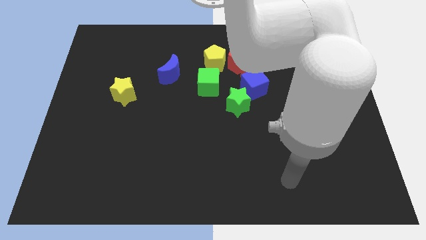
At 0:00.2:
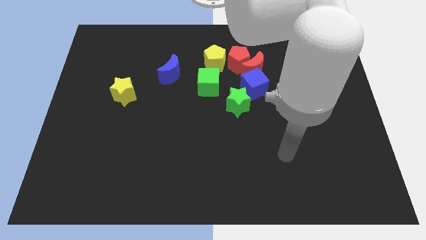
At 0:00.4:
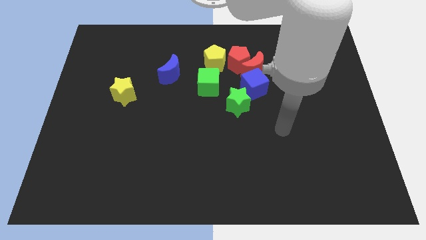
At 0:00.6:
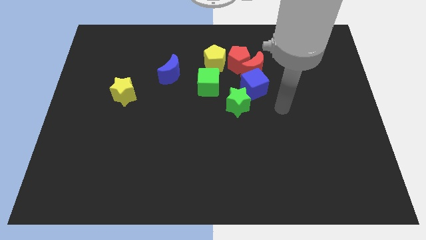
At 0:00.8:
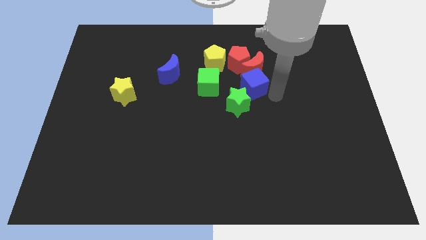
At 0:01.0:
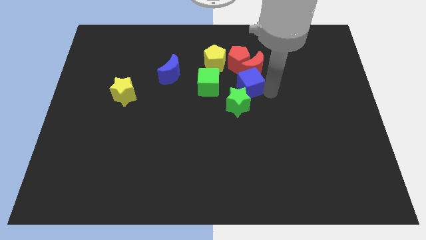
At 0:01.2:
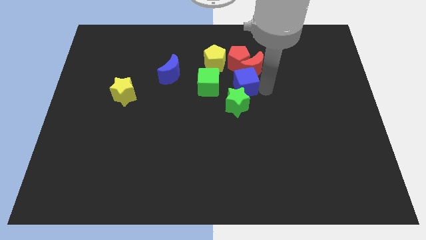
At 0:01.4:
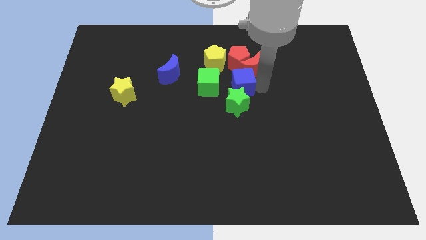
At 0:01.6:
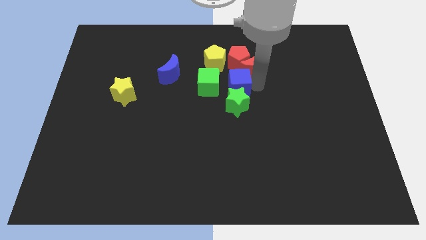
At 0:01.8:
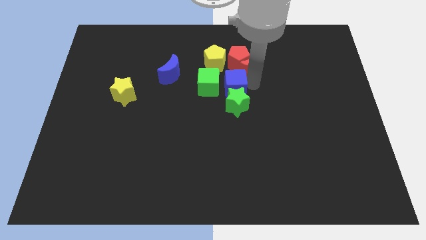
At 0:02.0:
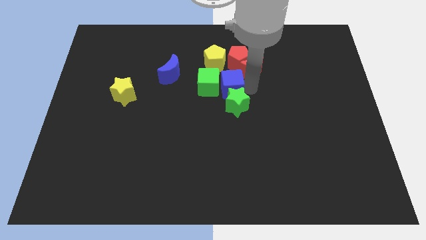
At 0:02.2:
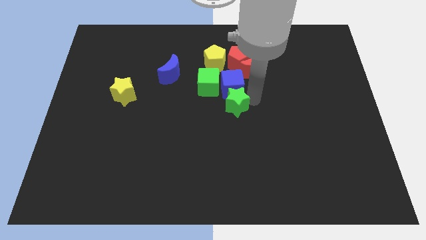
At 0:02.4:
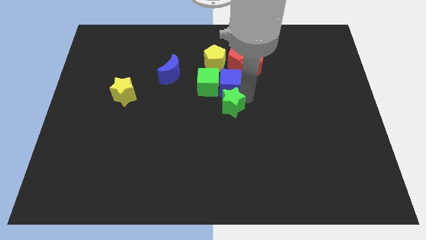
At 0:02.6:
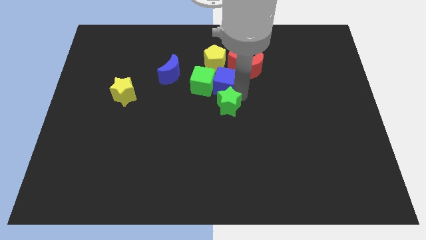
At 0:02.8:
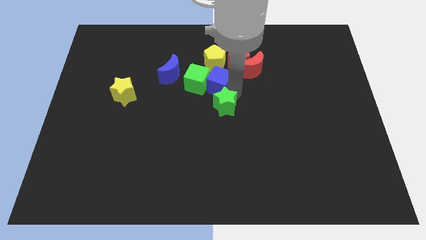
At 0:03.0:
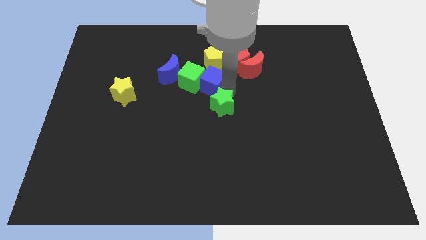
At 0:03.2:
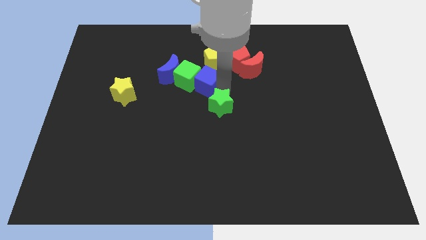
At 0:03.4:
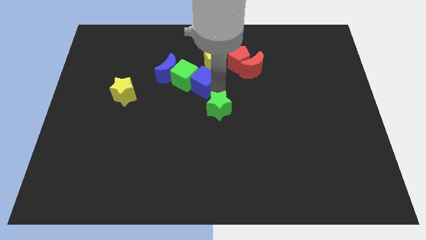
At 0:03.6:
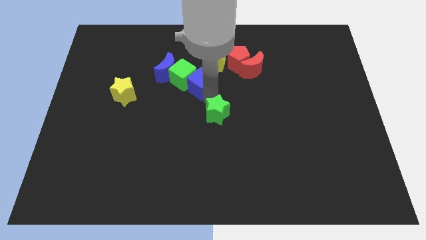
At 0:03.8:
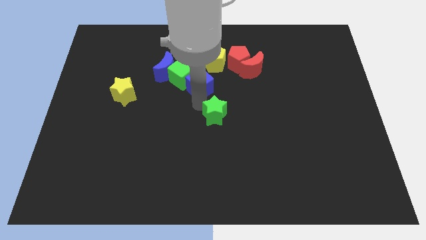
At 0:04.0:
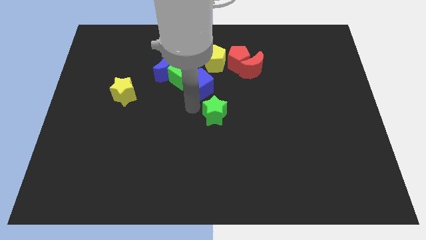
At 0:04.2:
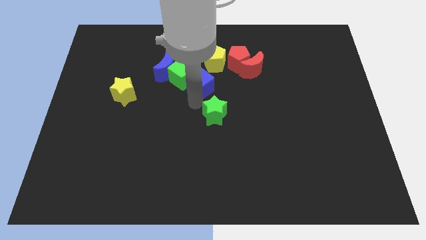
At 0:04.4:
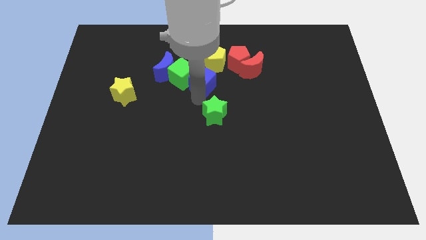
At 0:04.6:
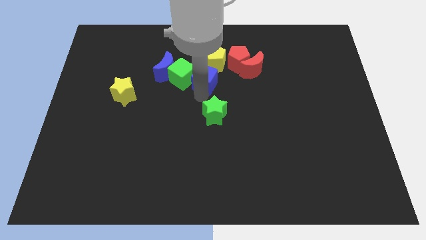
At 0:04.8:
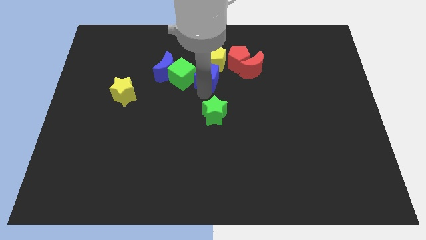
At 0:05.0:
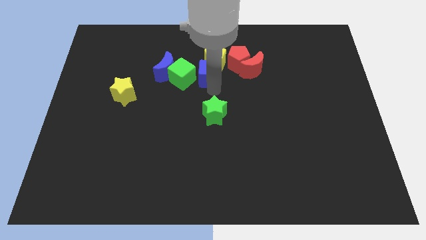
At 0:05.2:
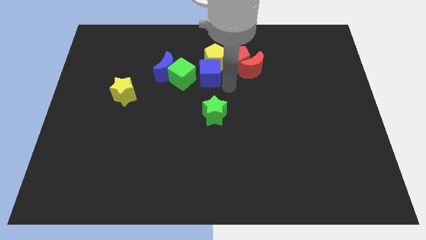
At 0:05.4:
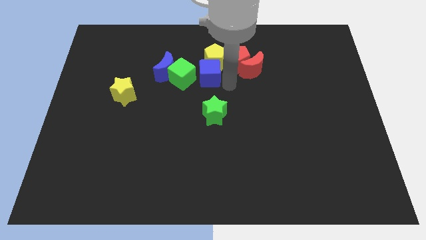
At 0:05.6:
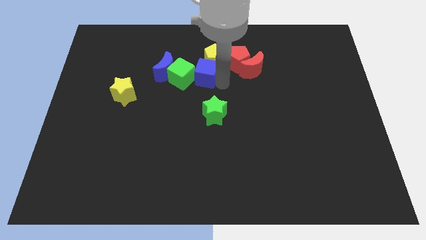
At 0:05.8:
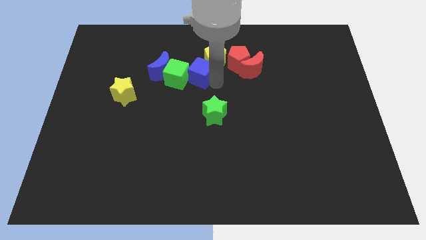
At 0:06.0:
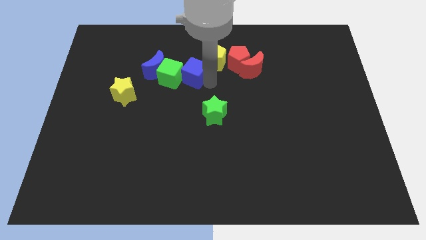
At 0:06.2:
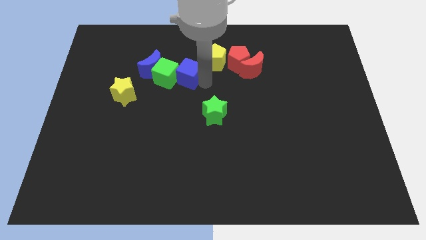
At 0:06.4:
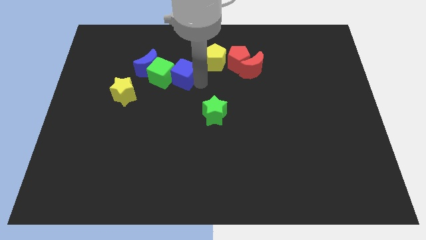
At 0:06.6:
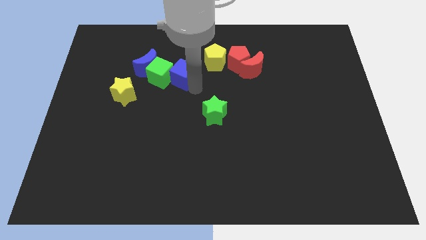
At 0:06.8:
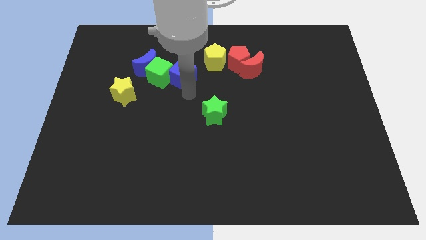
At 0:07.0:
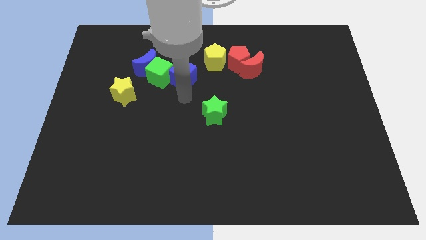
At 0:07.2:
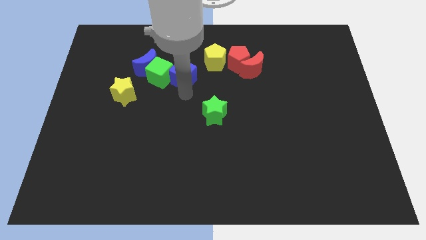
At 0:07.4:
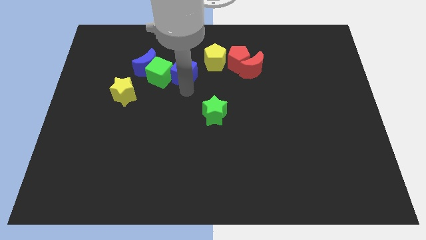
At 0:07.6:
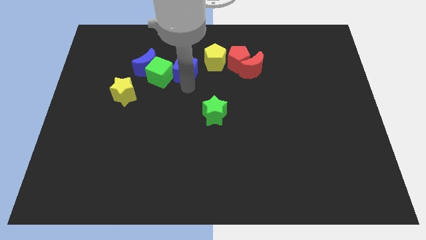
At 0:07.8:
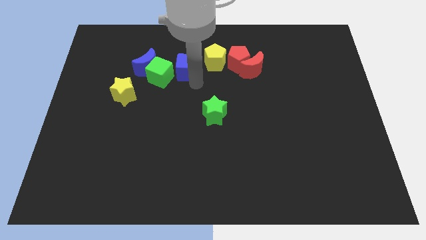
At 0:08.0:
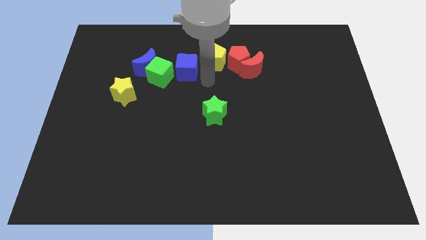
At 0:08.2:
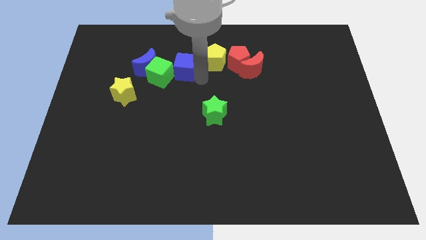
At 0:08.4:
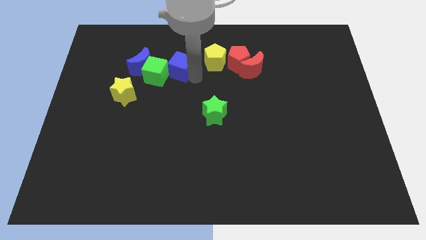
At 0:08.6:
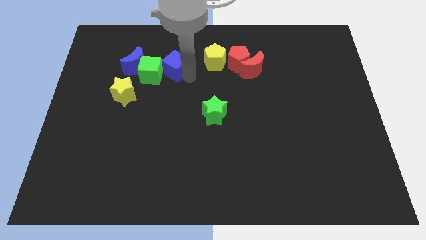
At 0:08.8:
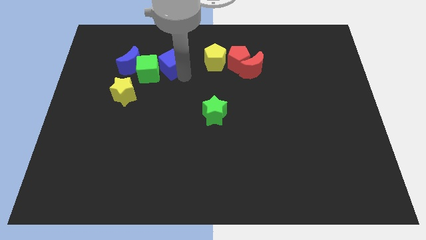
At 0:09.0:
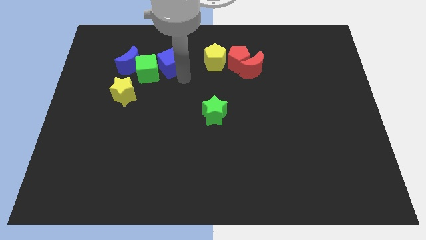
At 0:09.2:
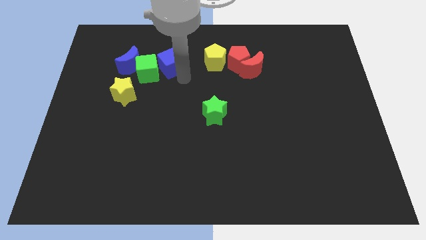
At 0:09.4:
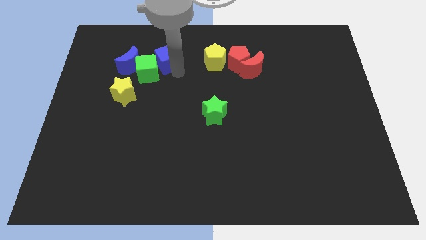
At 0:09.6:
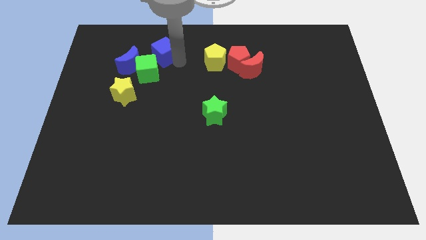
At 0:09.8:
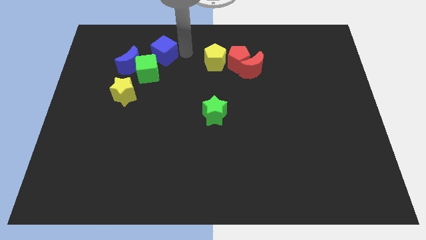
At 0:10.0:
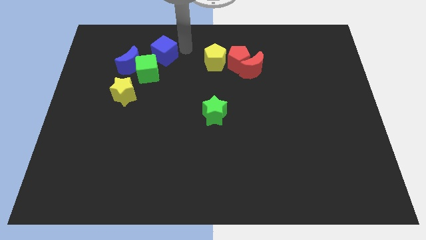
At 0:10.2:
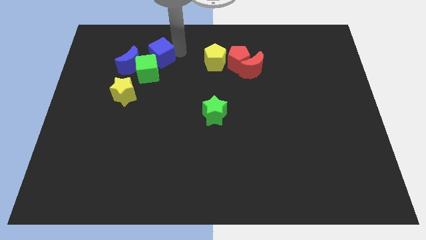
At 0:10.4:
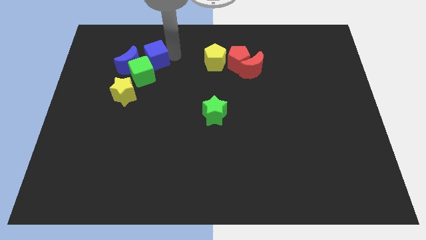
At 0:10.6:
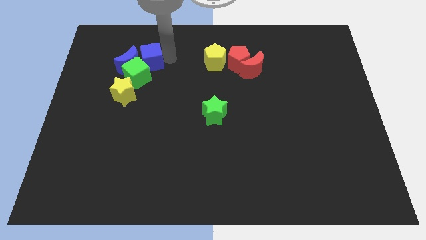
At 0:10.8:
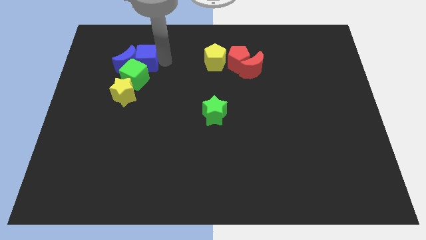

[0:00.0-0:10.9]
put the blue cube above the yellow star

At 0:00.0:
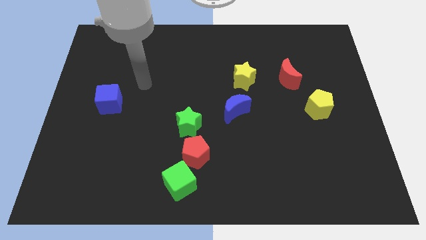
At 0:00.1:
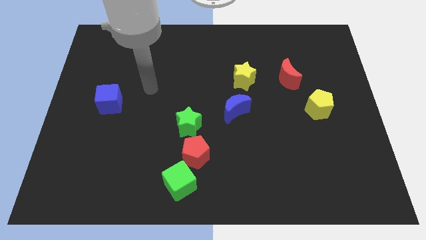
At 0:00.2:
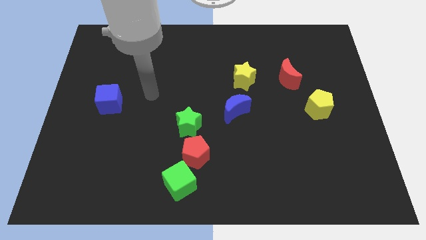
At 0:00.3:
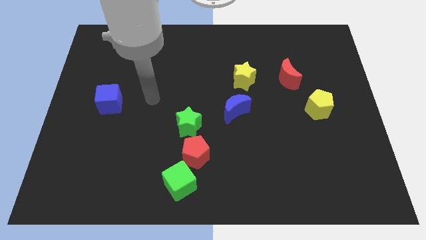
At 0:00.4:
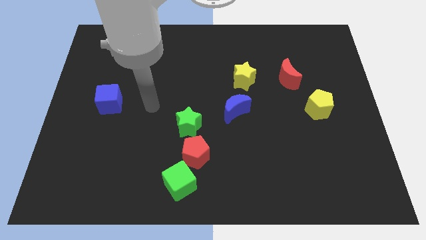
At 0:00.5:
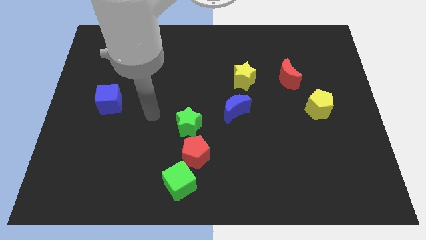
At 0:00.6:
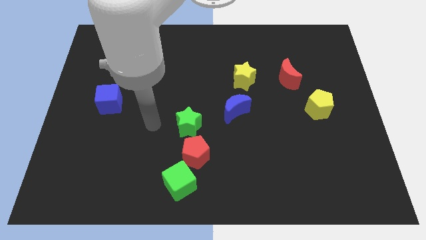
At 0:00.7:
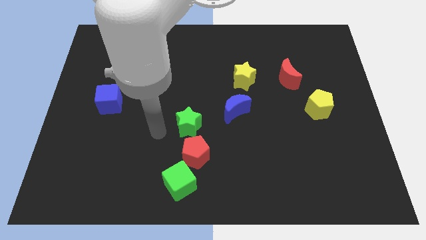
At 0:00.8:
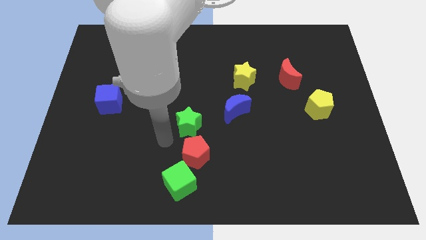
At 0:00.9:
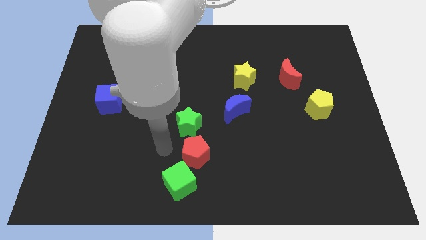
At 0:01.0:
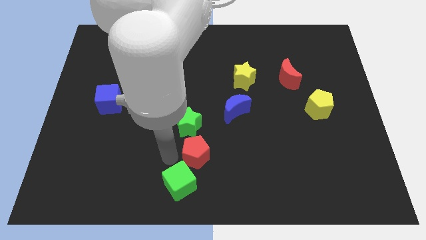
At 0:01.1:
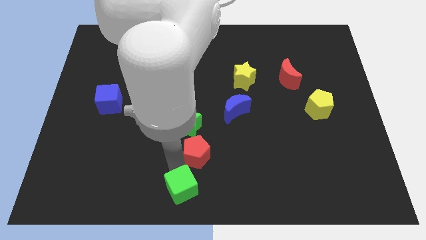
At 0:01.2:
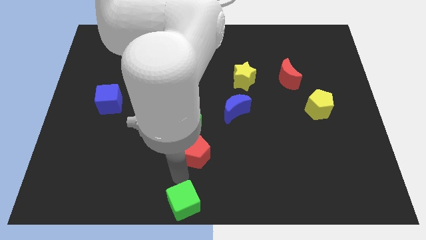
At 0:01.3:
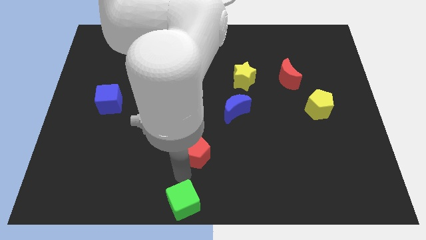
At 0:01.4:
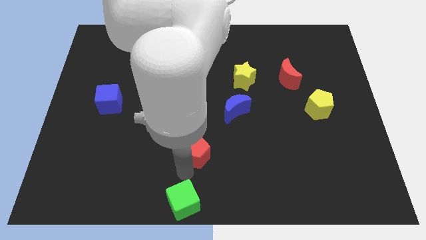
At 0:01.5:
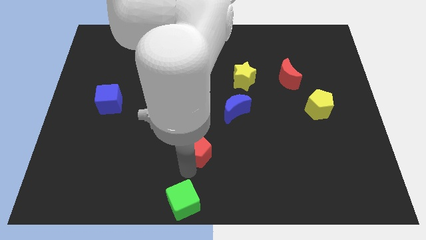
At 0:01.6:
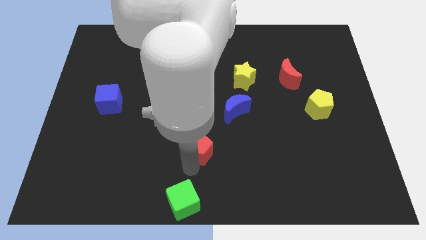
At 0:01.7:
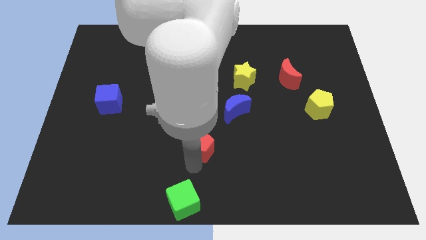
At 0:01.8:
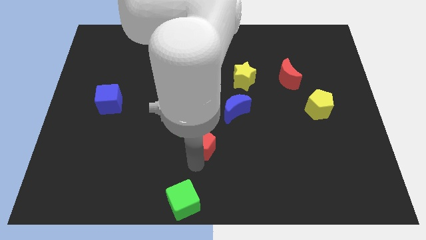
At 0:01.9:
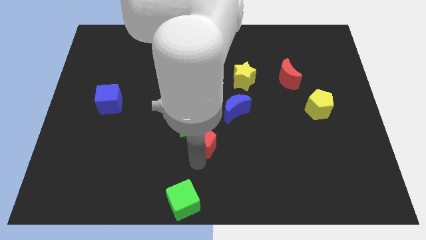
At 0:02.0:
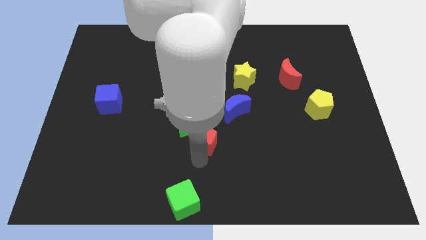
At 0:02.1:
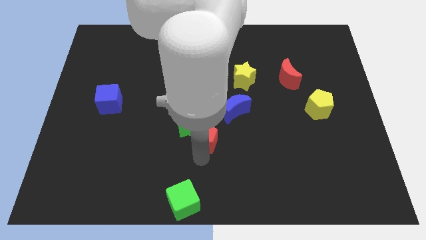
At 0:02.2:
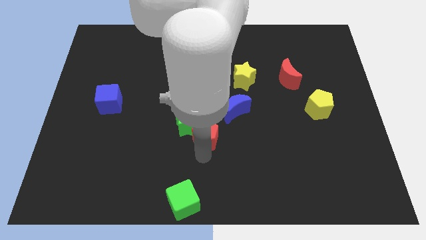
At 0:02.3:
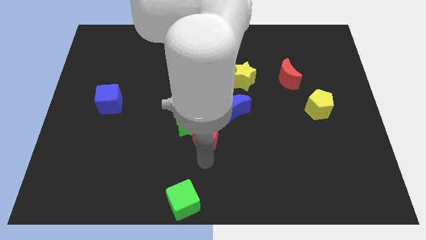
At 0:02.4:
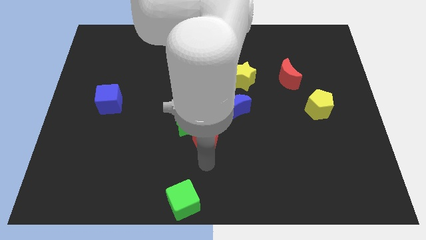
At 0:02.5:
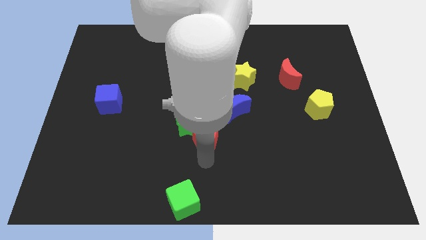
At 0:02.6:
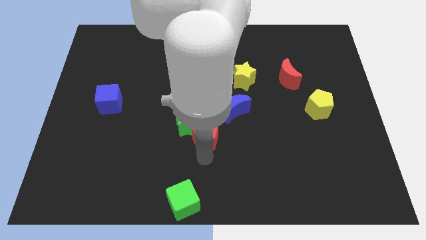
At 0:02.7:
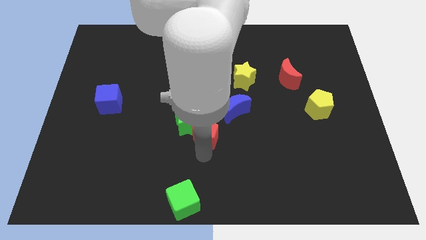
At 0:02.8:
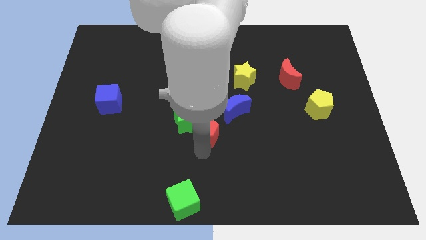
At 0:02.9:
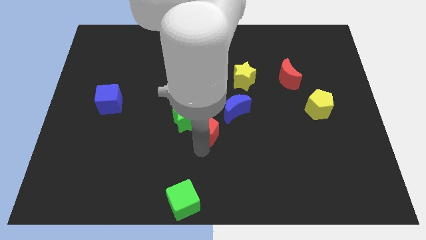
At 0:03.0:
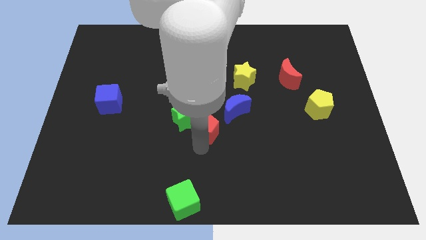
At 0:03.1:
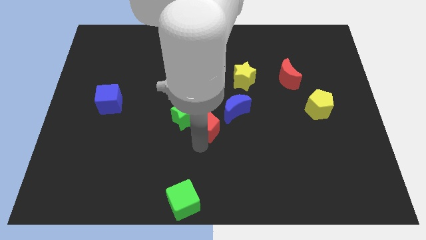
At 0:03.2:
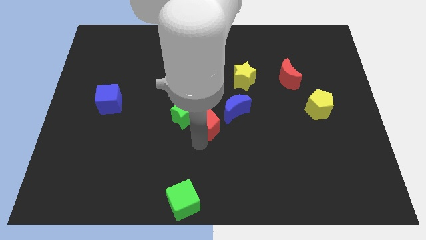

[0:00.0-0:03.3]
move the red pentagon to the left of the blue moon
